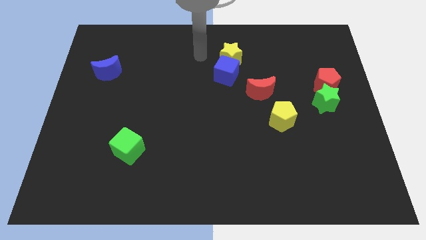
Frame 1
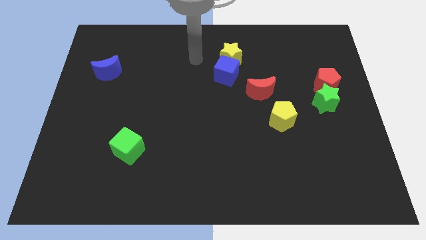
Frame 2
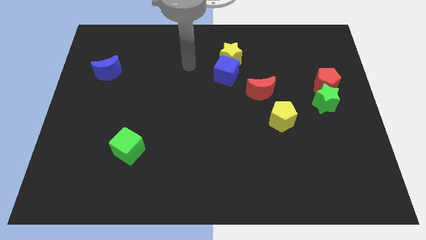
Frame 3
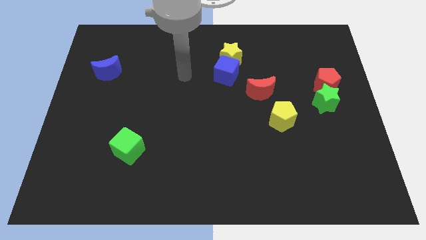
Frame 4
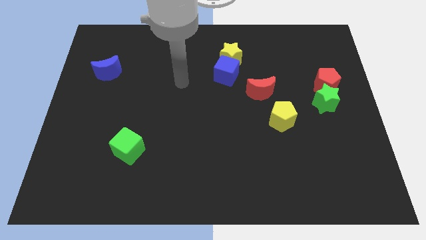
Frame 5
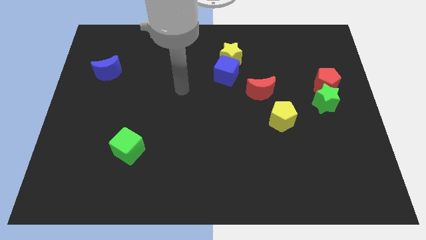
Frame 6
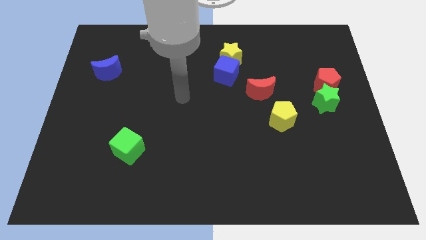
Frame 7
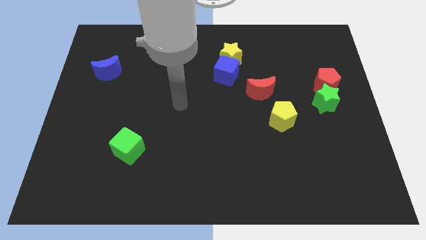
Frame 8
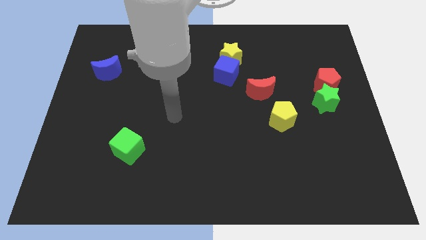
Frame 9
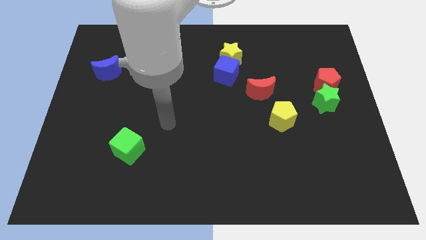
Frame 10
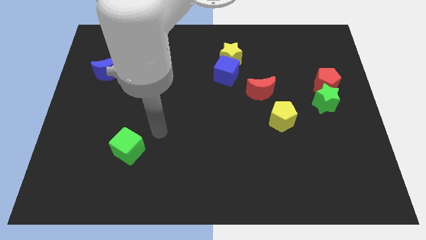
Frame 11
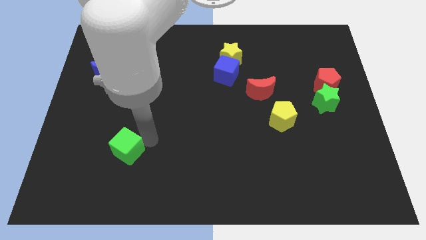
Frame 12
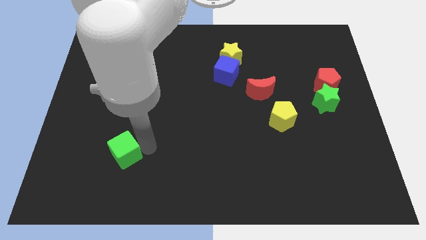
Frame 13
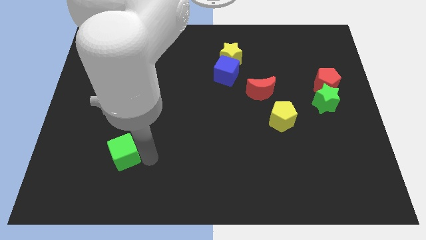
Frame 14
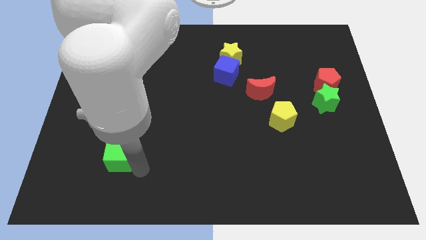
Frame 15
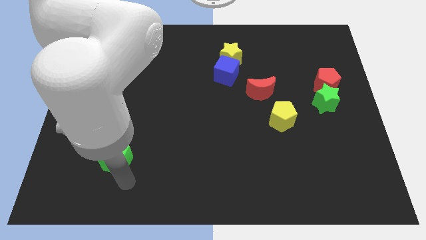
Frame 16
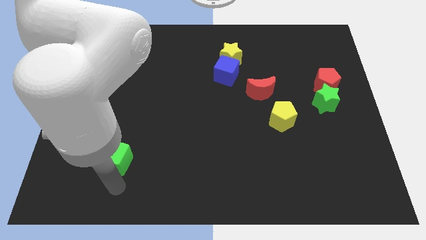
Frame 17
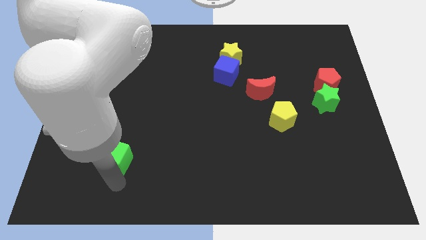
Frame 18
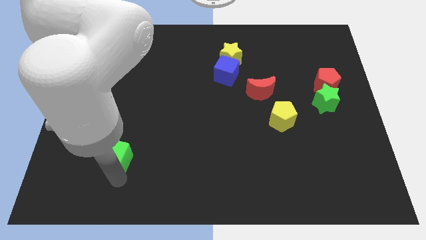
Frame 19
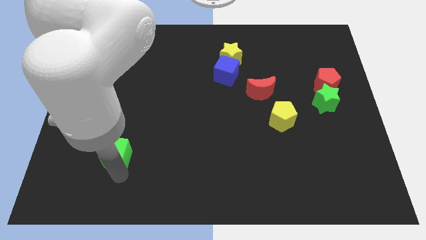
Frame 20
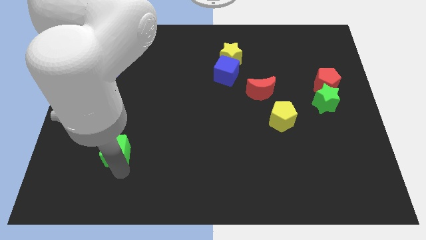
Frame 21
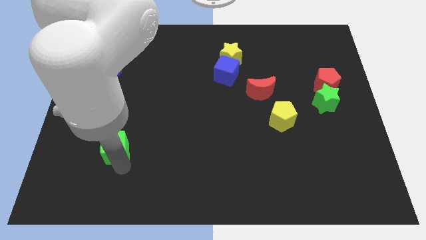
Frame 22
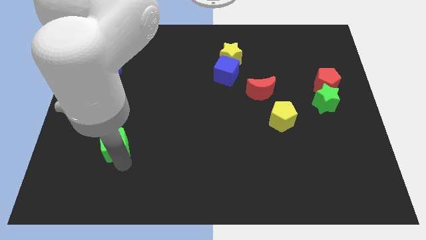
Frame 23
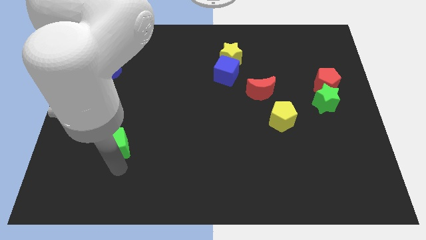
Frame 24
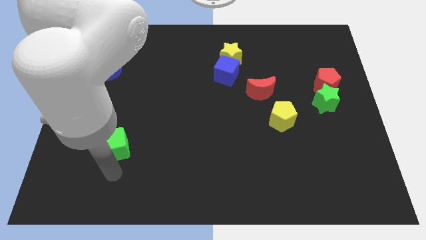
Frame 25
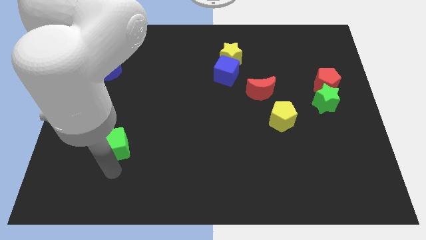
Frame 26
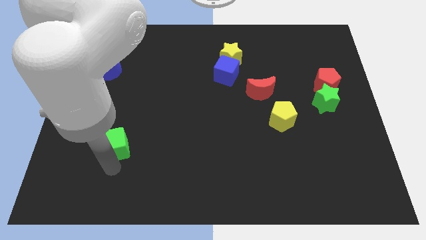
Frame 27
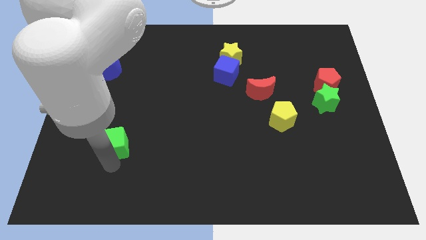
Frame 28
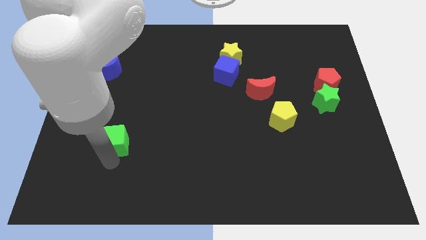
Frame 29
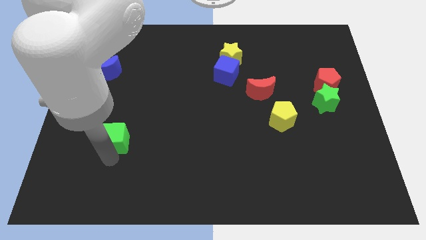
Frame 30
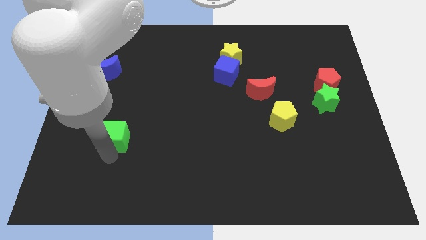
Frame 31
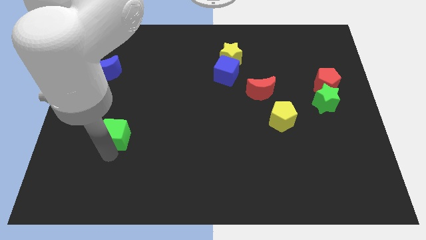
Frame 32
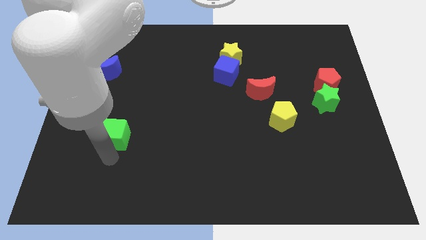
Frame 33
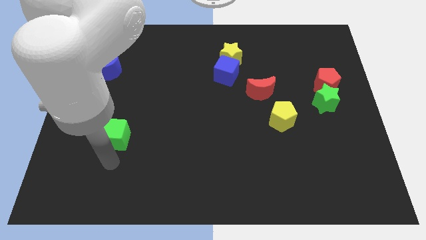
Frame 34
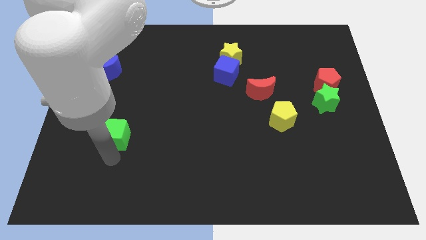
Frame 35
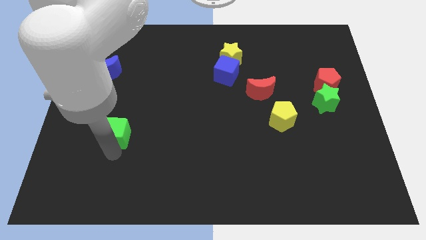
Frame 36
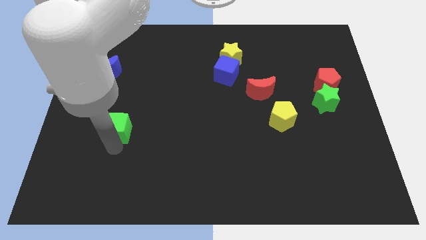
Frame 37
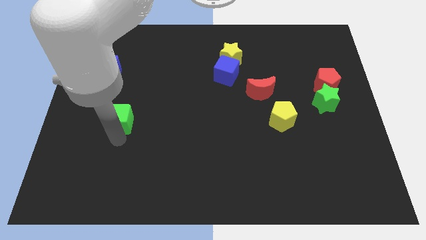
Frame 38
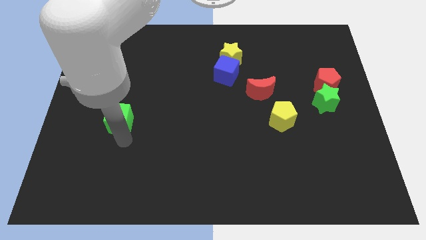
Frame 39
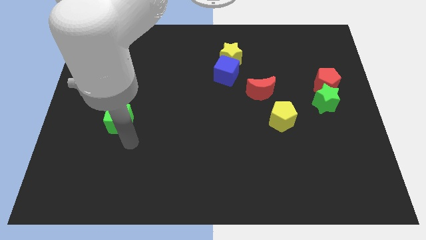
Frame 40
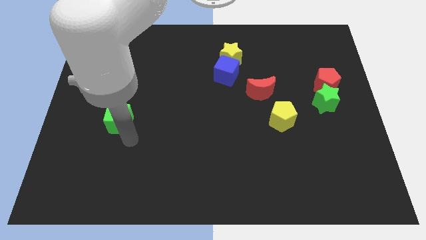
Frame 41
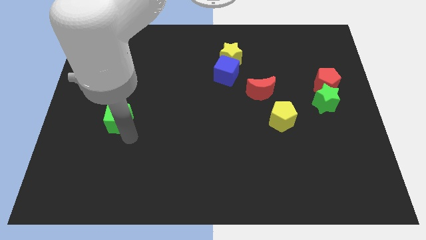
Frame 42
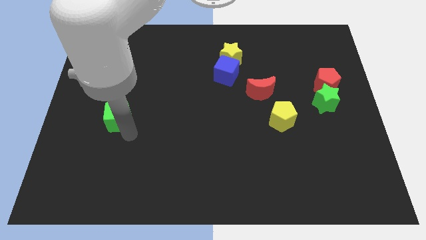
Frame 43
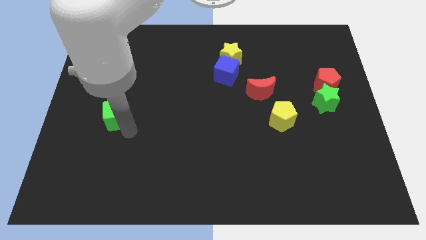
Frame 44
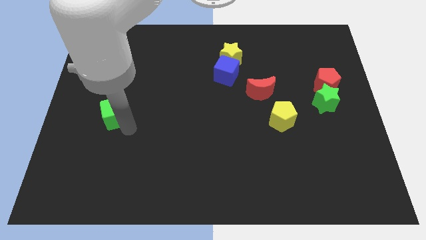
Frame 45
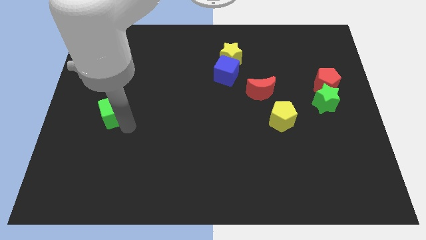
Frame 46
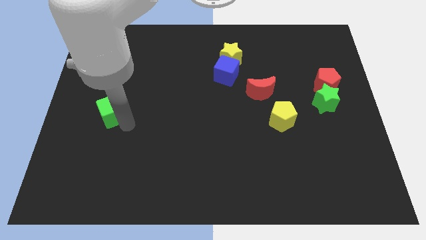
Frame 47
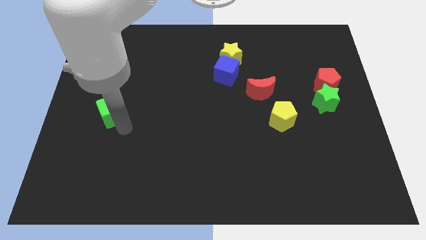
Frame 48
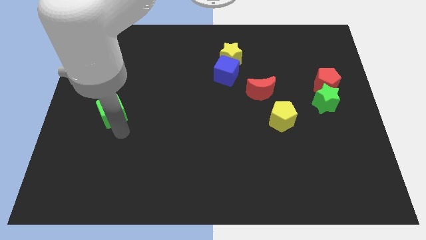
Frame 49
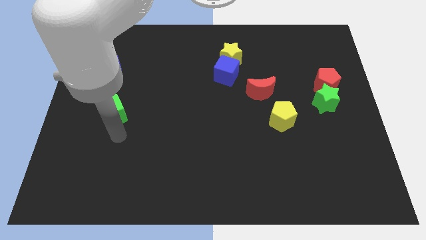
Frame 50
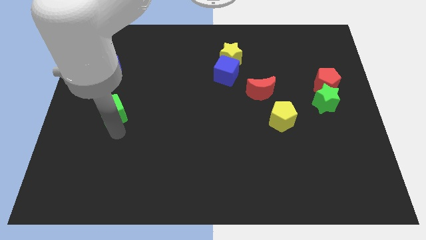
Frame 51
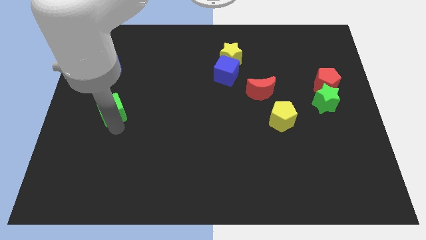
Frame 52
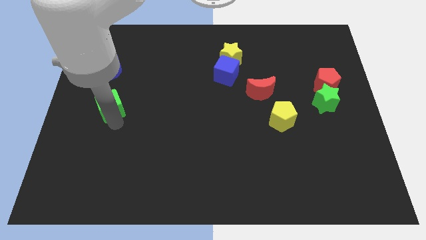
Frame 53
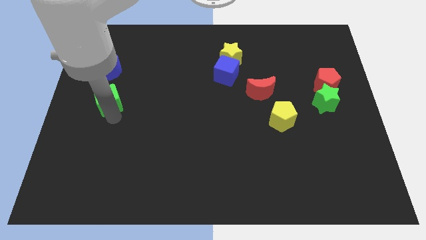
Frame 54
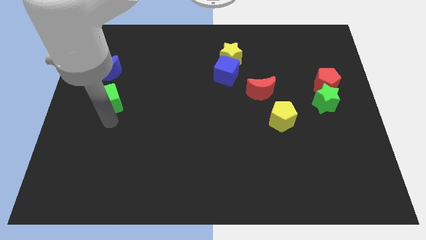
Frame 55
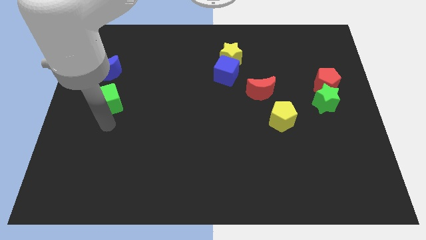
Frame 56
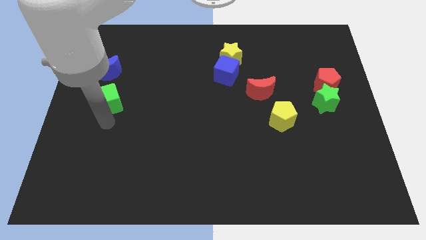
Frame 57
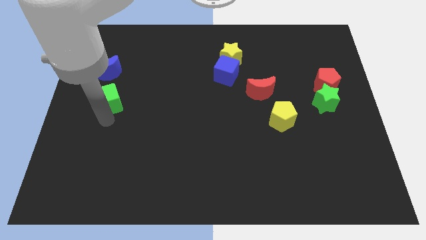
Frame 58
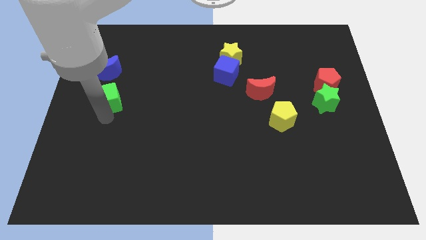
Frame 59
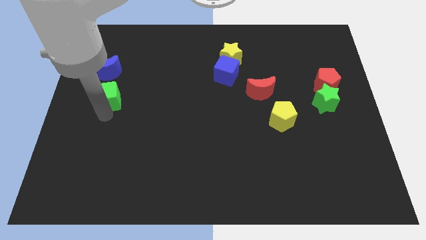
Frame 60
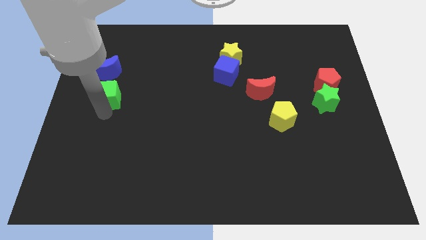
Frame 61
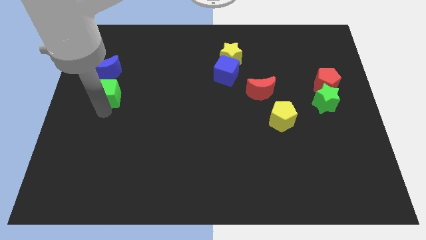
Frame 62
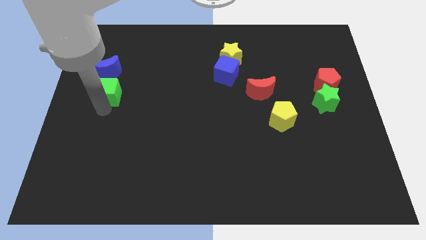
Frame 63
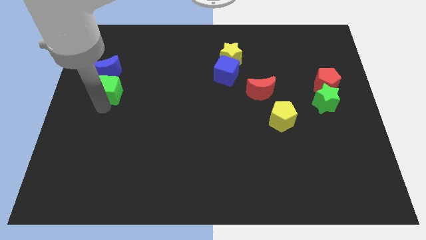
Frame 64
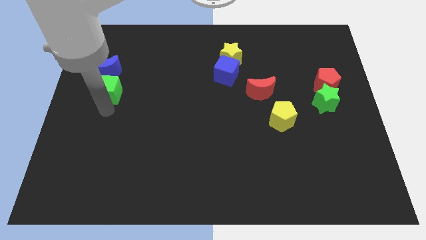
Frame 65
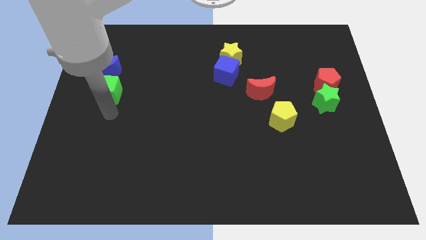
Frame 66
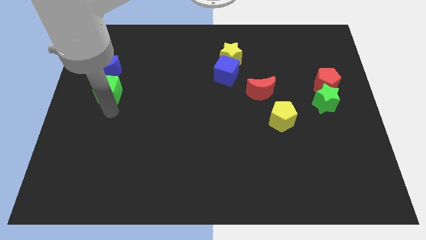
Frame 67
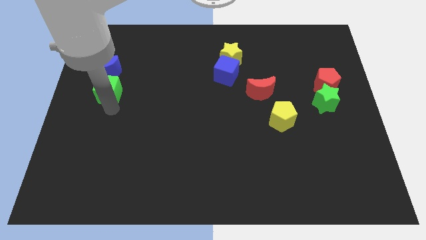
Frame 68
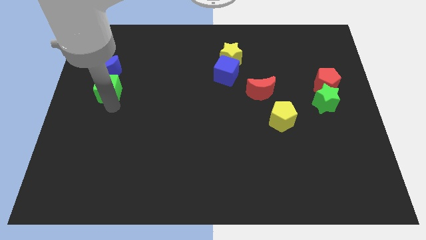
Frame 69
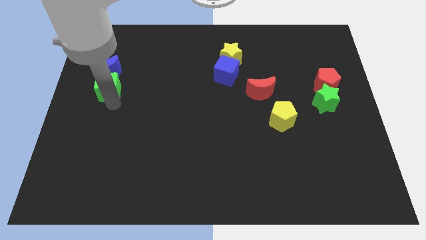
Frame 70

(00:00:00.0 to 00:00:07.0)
slide the green cube towards the blue moon
